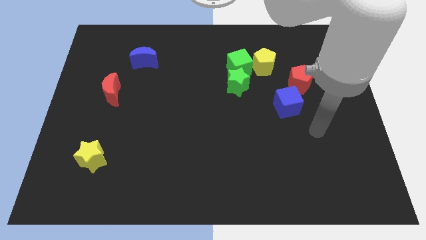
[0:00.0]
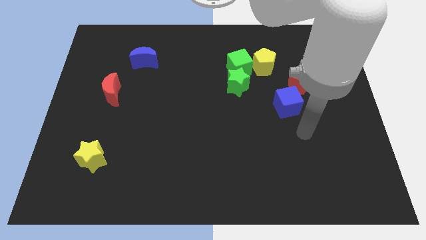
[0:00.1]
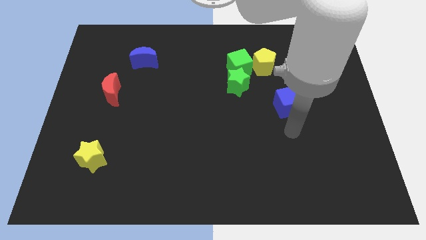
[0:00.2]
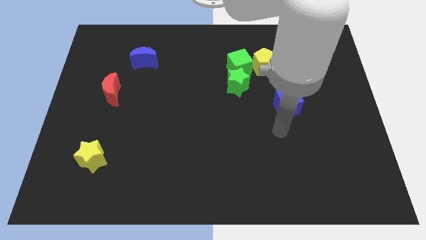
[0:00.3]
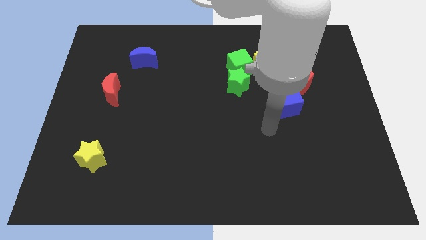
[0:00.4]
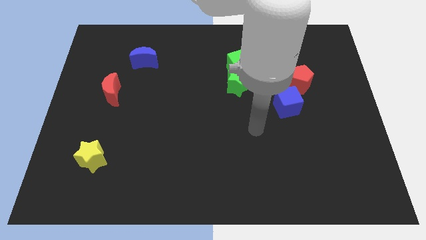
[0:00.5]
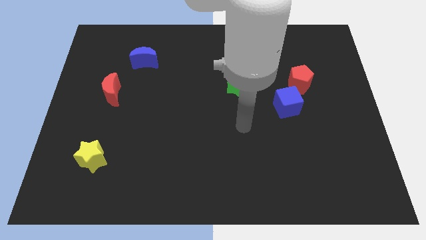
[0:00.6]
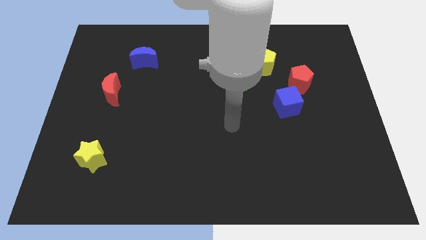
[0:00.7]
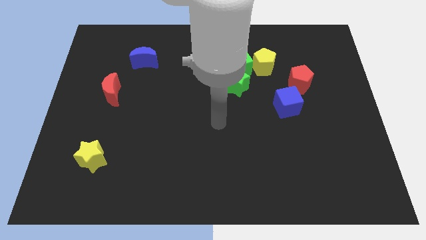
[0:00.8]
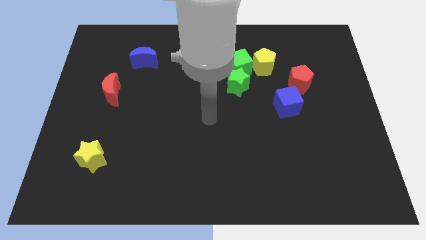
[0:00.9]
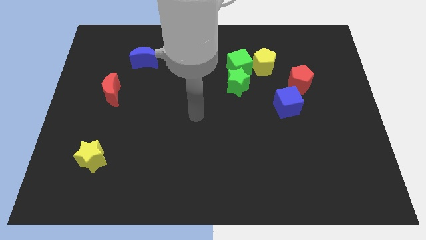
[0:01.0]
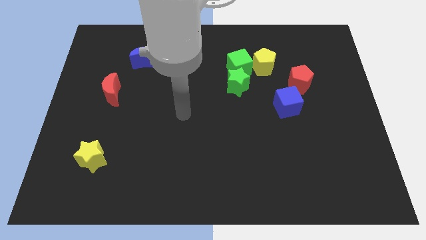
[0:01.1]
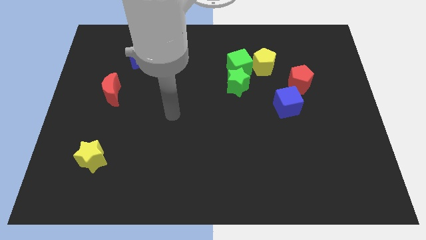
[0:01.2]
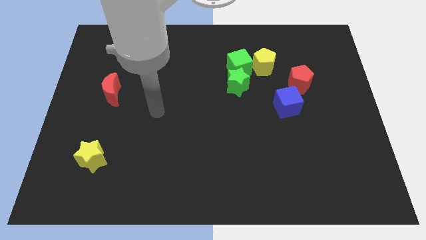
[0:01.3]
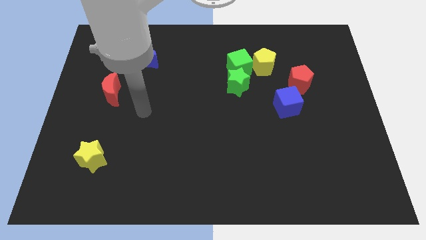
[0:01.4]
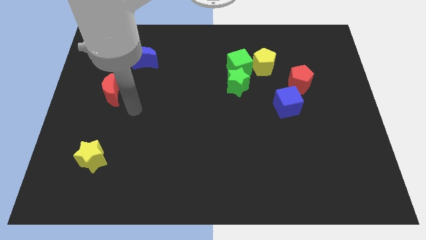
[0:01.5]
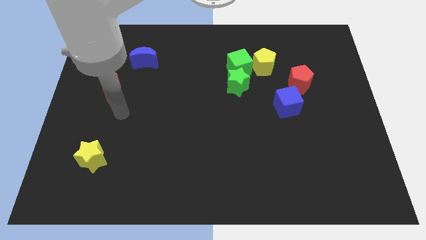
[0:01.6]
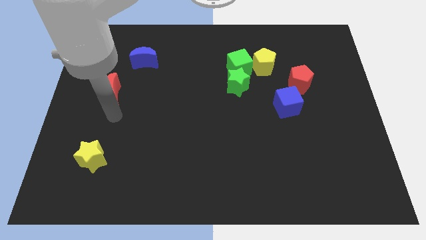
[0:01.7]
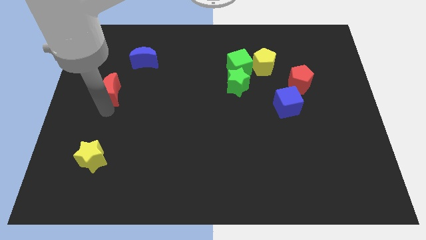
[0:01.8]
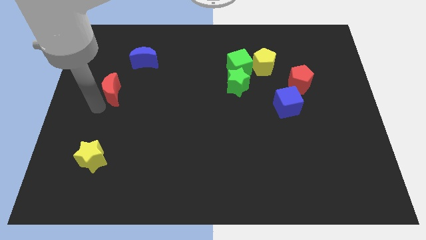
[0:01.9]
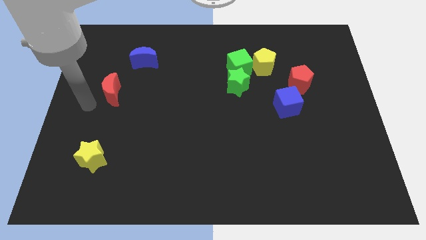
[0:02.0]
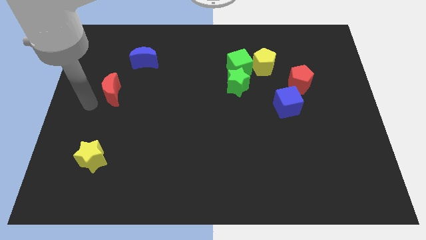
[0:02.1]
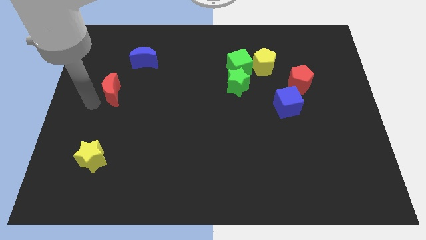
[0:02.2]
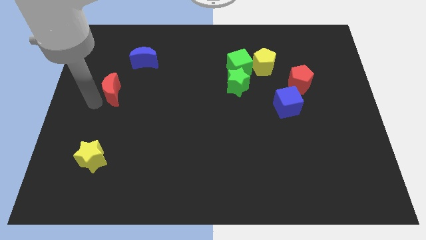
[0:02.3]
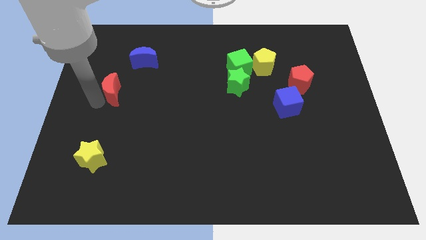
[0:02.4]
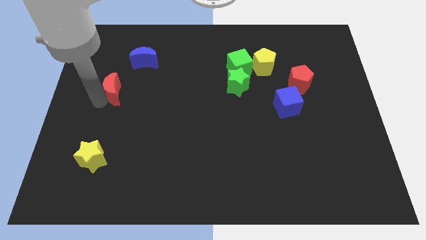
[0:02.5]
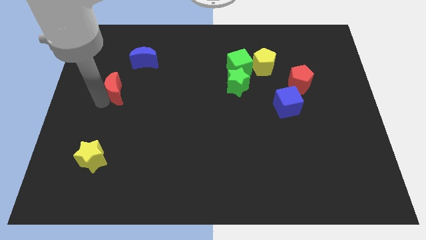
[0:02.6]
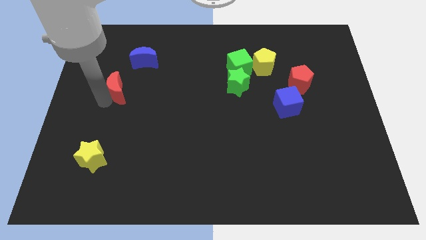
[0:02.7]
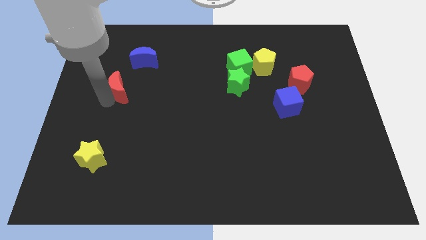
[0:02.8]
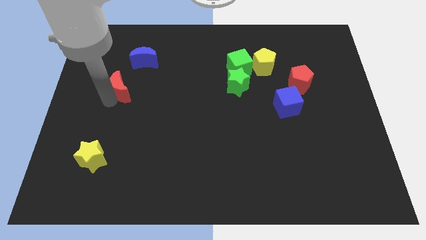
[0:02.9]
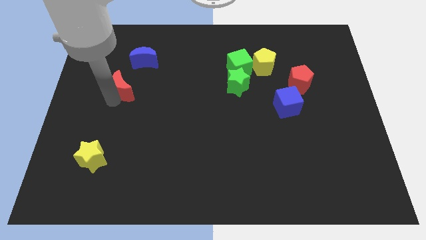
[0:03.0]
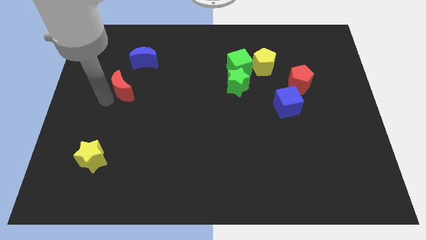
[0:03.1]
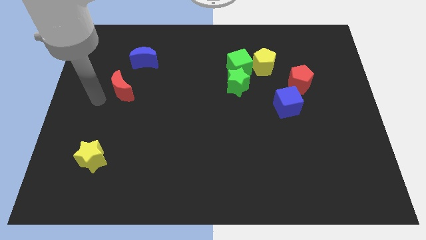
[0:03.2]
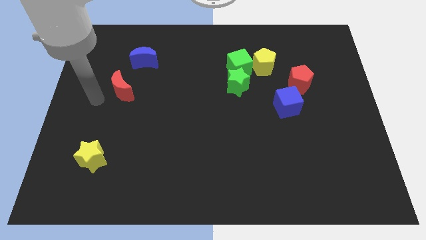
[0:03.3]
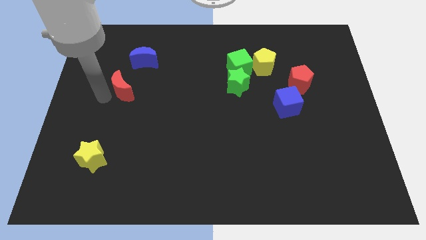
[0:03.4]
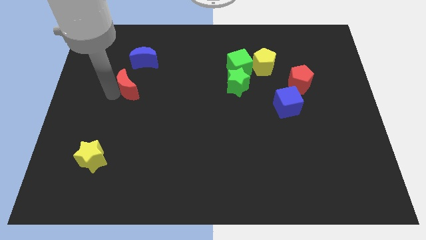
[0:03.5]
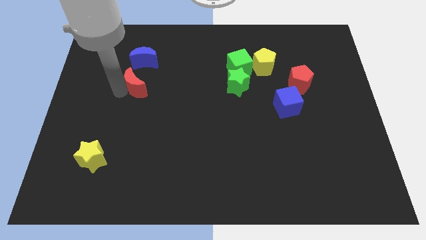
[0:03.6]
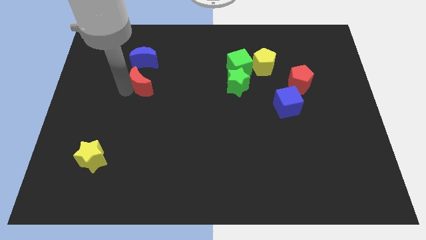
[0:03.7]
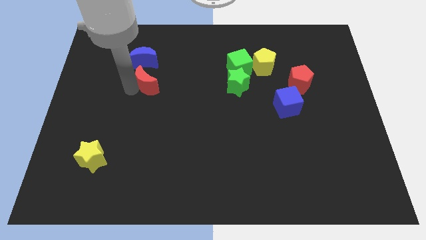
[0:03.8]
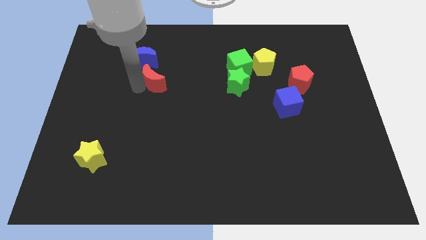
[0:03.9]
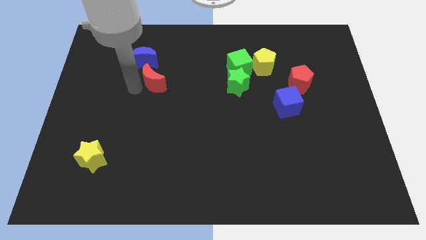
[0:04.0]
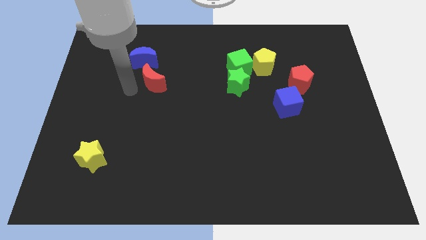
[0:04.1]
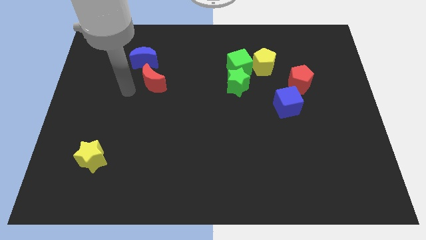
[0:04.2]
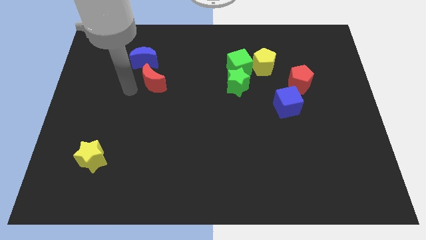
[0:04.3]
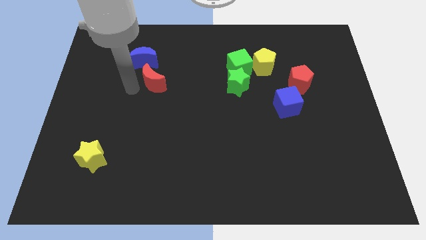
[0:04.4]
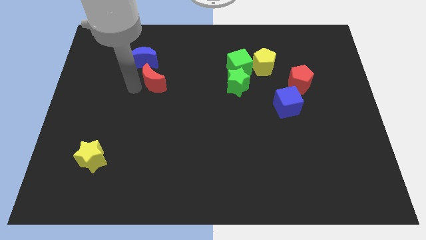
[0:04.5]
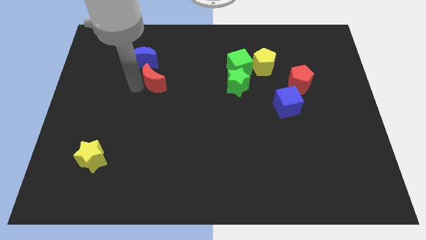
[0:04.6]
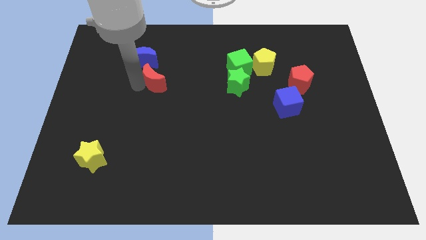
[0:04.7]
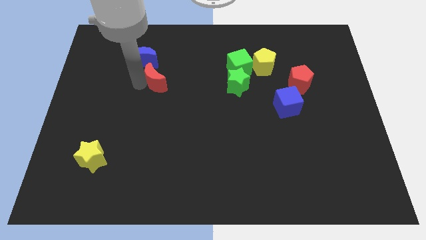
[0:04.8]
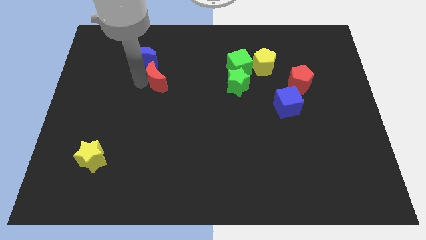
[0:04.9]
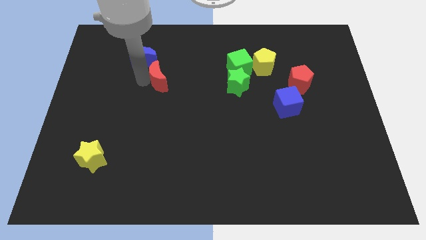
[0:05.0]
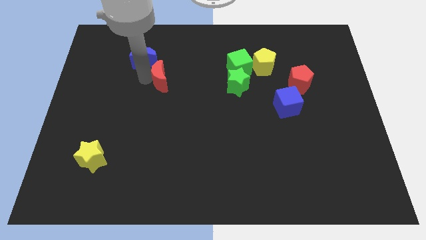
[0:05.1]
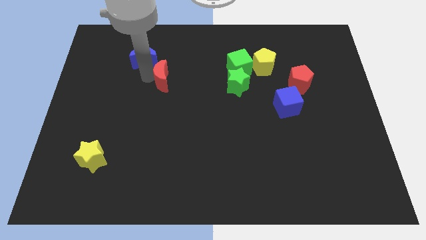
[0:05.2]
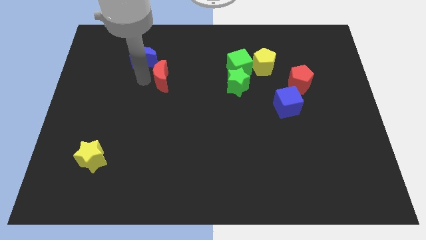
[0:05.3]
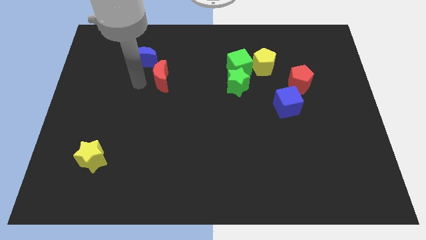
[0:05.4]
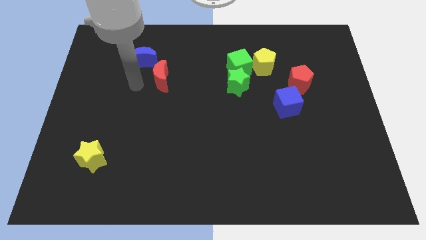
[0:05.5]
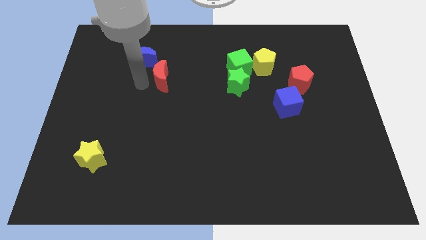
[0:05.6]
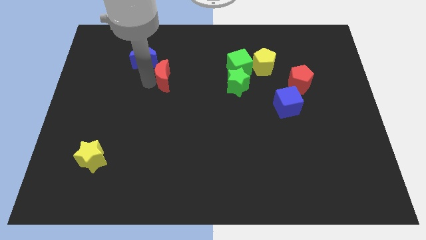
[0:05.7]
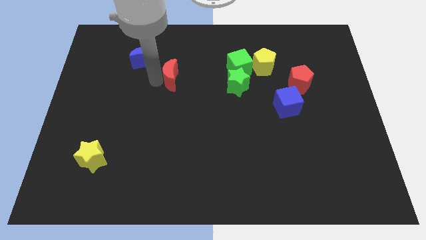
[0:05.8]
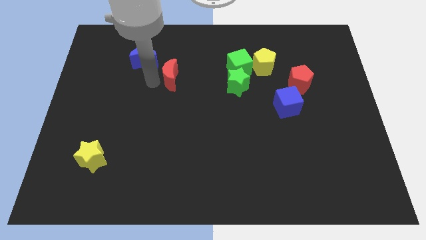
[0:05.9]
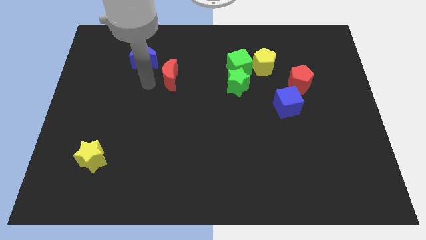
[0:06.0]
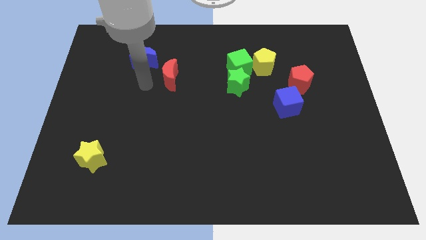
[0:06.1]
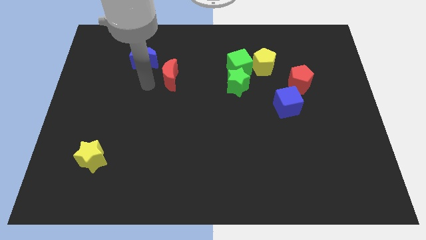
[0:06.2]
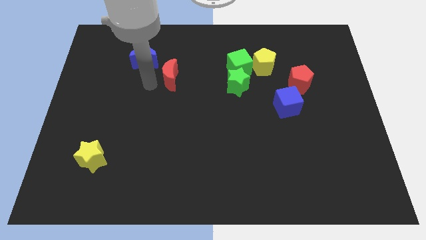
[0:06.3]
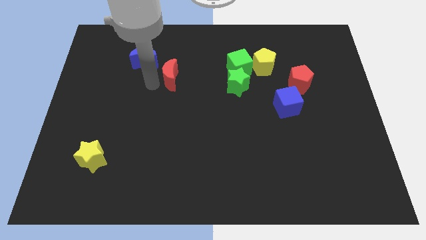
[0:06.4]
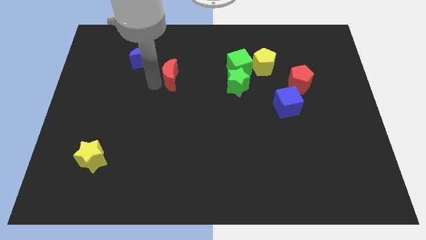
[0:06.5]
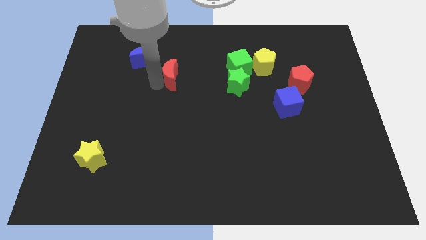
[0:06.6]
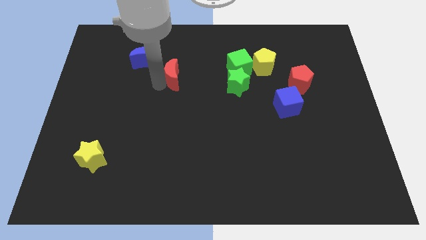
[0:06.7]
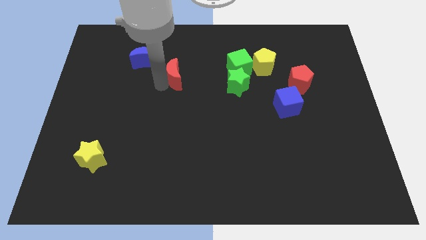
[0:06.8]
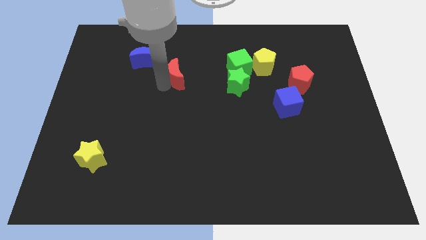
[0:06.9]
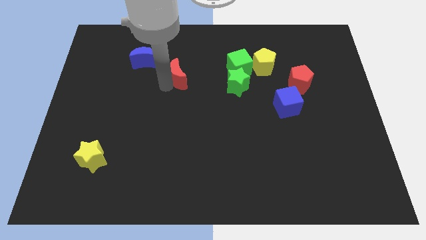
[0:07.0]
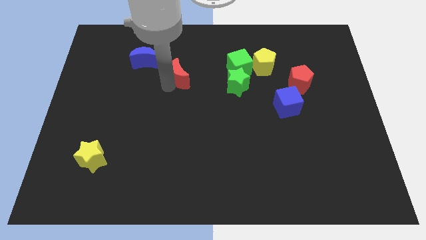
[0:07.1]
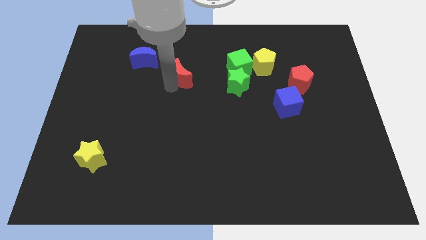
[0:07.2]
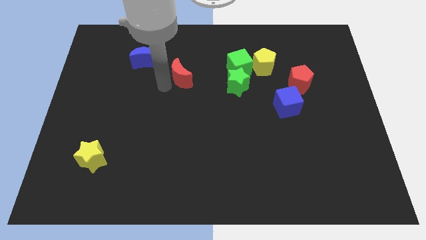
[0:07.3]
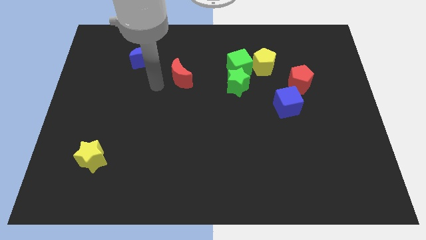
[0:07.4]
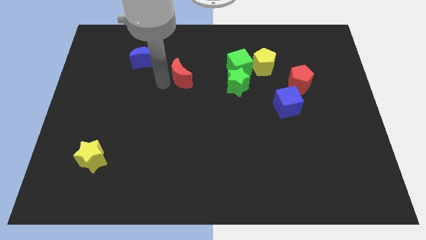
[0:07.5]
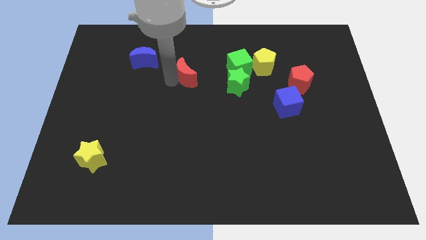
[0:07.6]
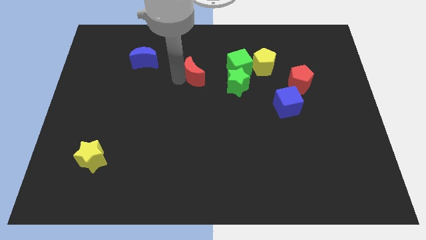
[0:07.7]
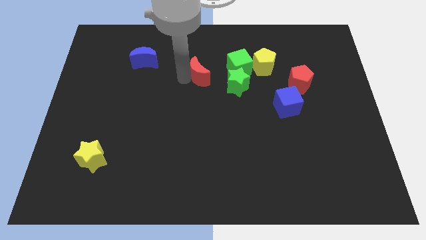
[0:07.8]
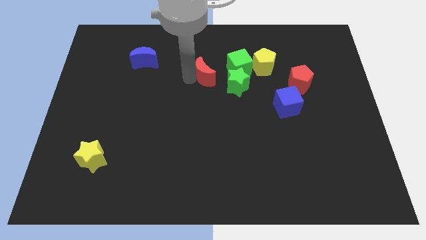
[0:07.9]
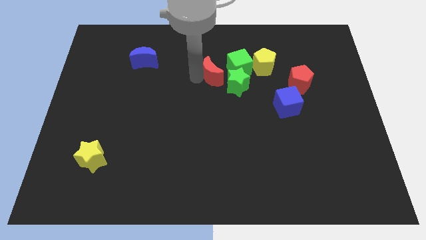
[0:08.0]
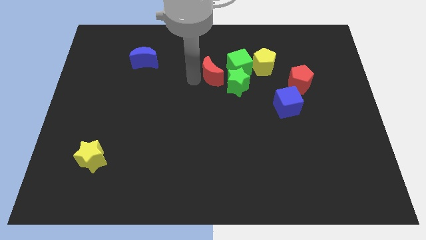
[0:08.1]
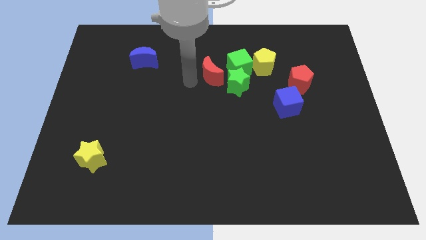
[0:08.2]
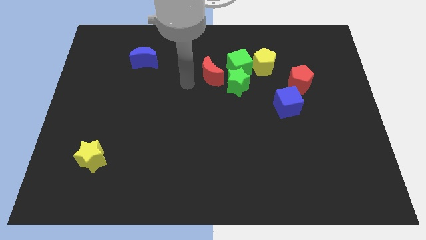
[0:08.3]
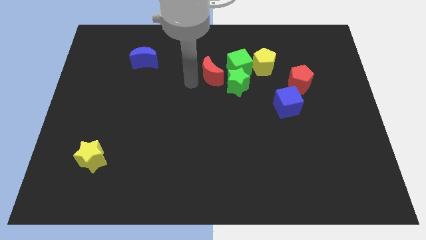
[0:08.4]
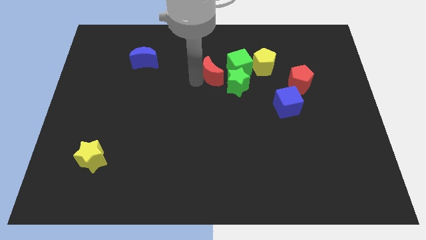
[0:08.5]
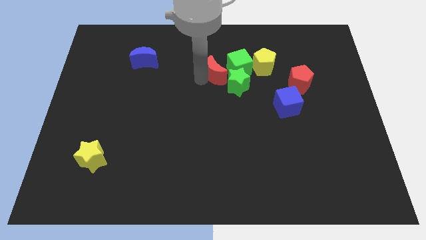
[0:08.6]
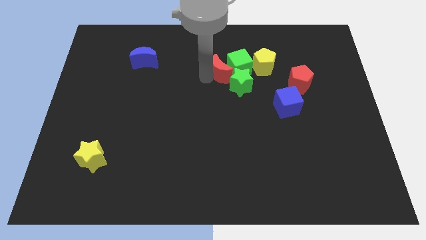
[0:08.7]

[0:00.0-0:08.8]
slide the red moon to the green cube
